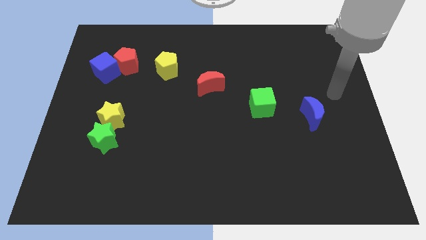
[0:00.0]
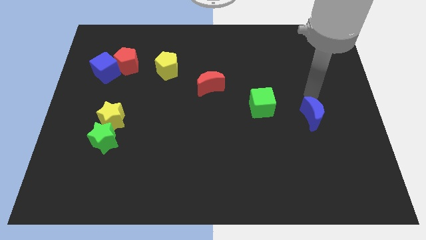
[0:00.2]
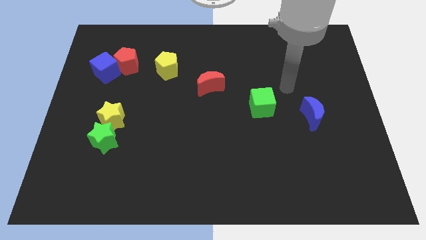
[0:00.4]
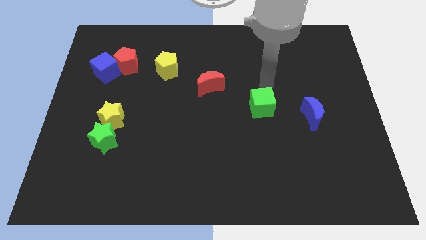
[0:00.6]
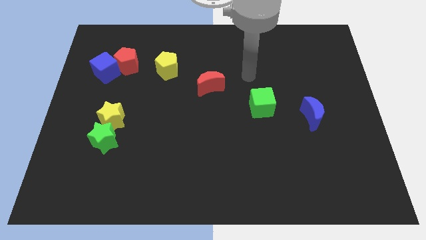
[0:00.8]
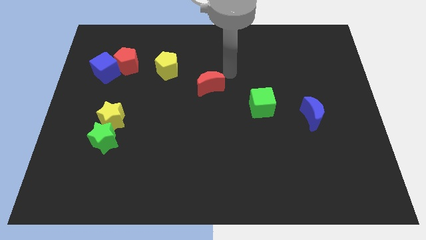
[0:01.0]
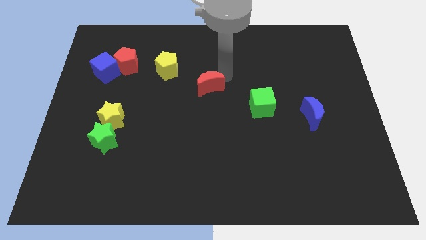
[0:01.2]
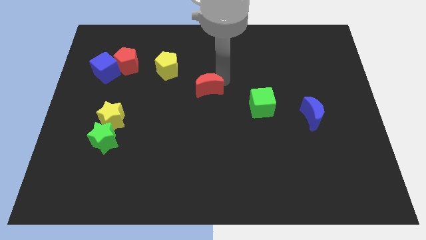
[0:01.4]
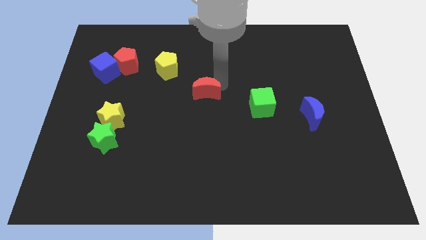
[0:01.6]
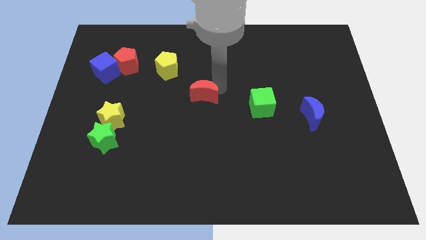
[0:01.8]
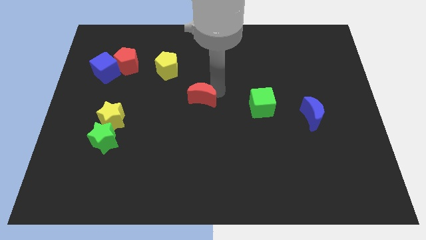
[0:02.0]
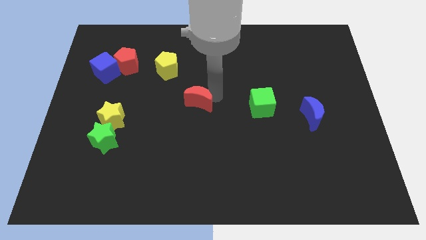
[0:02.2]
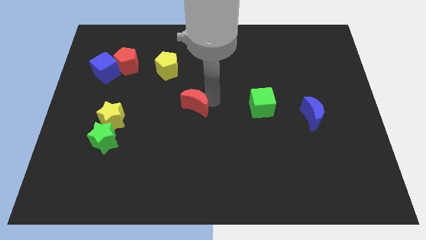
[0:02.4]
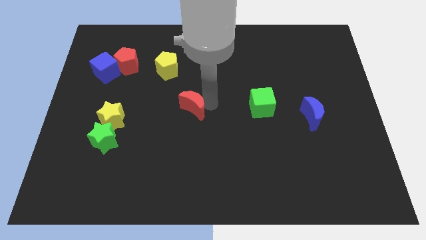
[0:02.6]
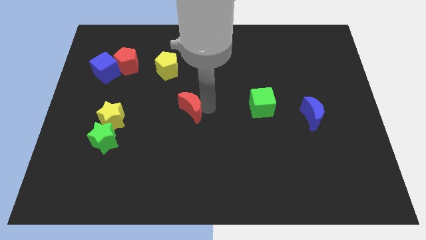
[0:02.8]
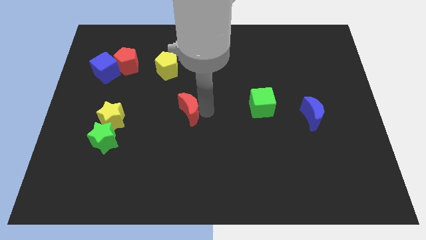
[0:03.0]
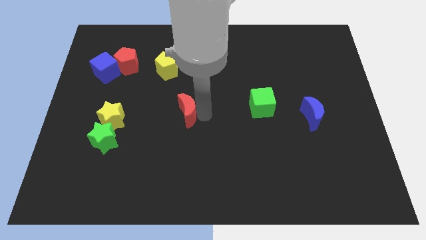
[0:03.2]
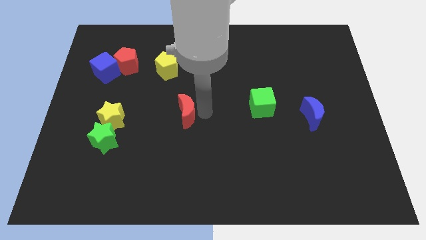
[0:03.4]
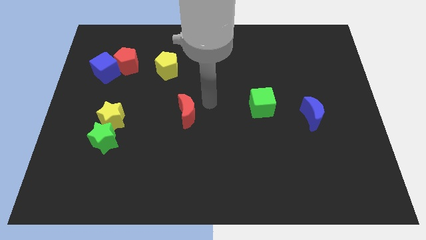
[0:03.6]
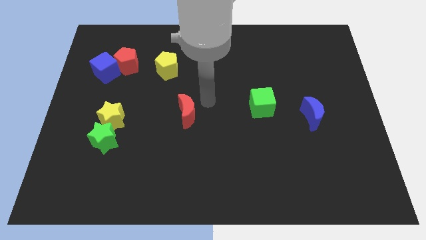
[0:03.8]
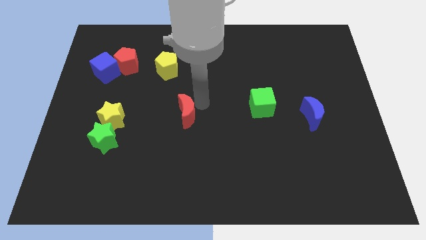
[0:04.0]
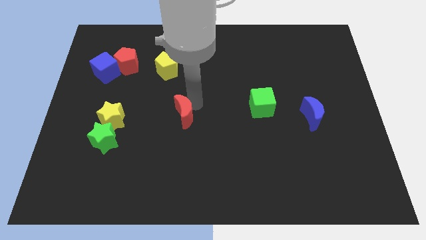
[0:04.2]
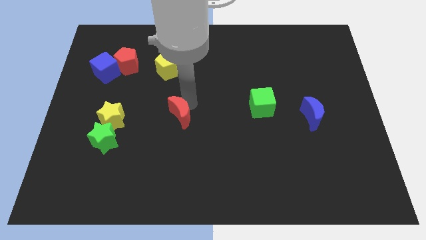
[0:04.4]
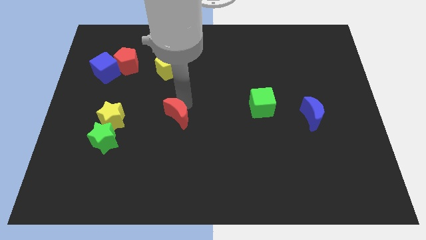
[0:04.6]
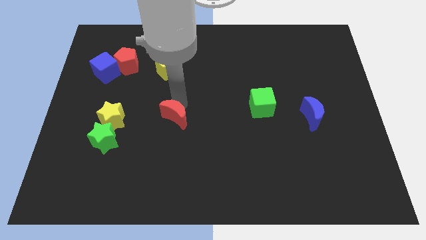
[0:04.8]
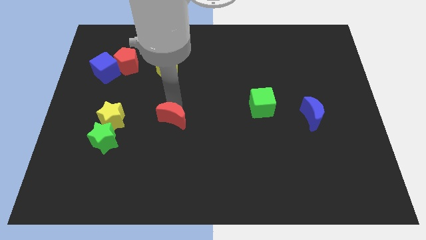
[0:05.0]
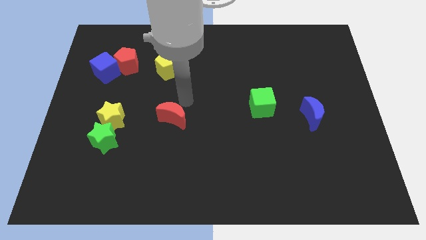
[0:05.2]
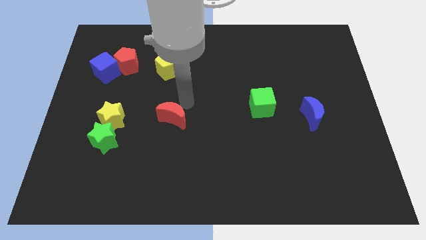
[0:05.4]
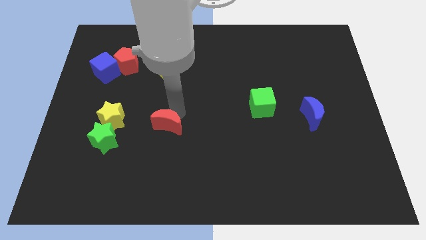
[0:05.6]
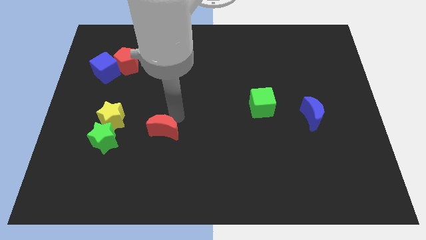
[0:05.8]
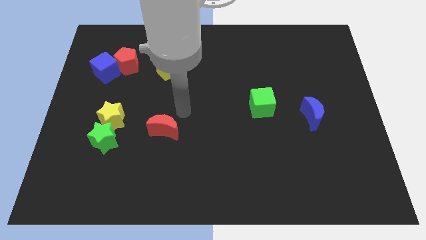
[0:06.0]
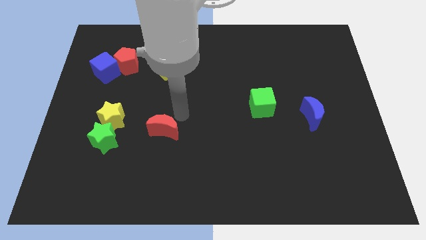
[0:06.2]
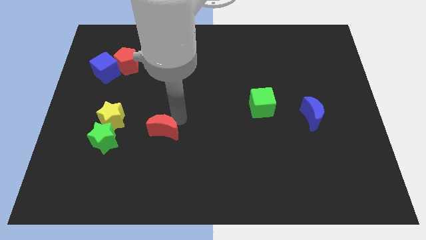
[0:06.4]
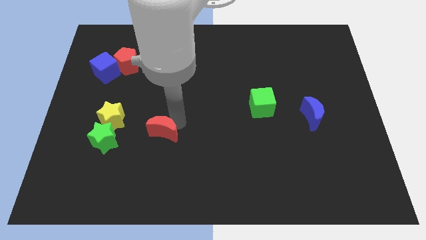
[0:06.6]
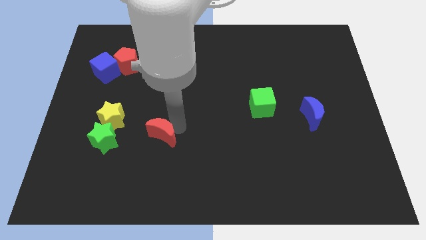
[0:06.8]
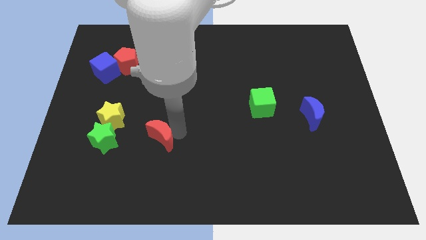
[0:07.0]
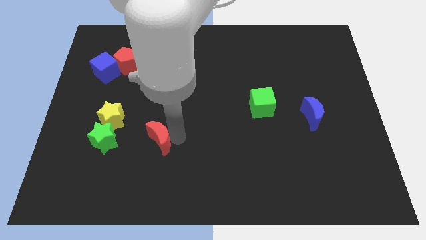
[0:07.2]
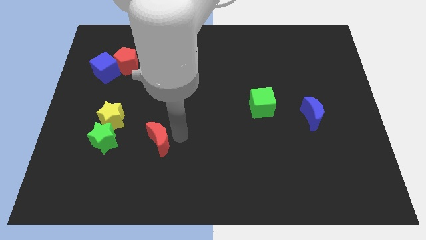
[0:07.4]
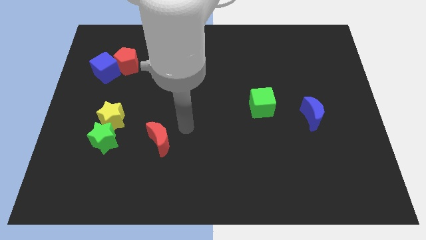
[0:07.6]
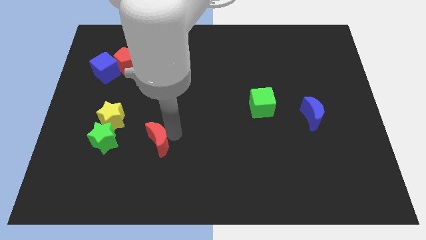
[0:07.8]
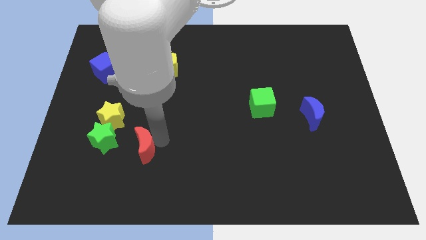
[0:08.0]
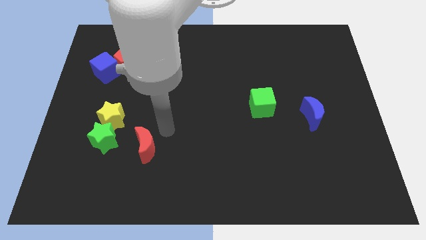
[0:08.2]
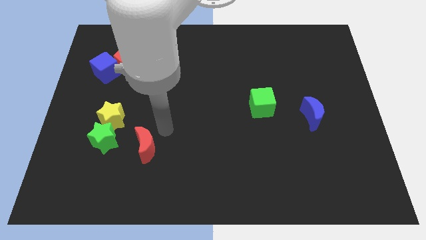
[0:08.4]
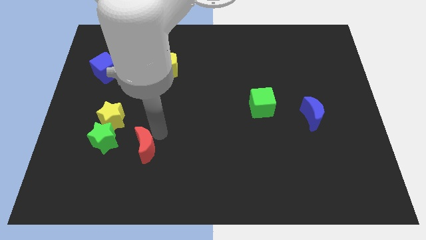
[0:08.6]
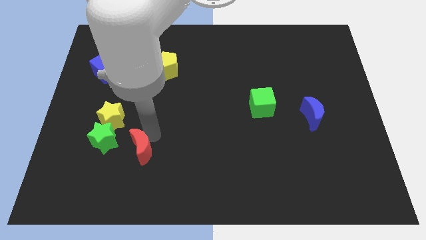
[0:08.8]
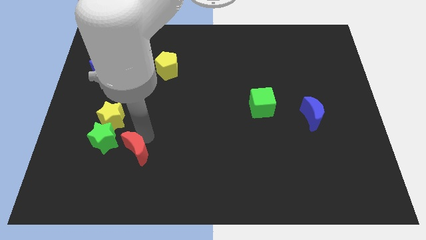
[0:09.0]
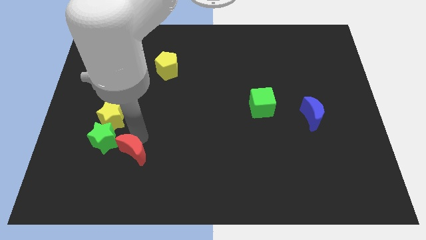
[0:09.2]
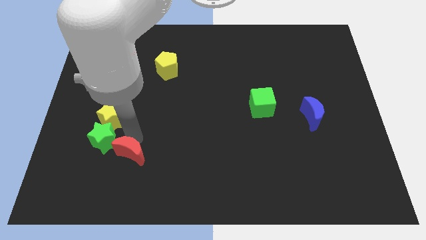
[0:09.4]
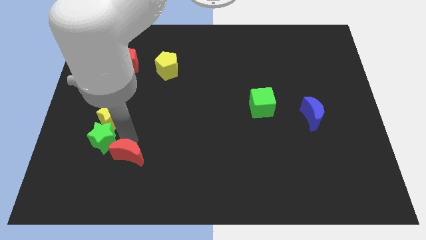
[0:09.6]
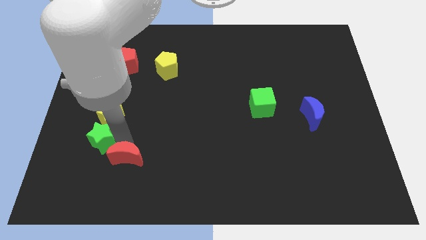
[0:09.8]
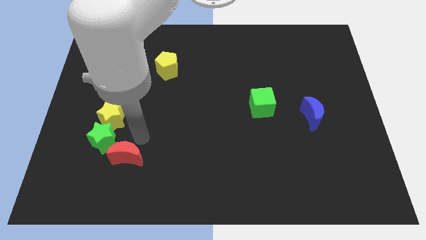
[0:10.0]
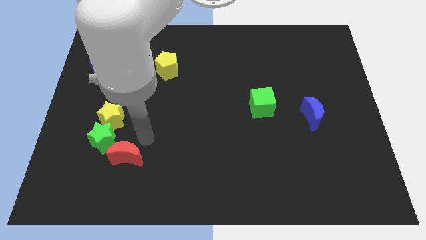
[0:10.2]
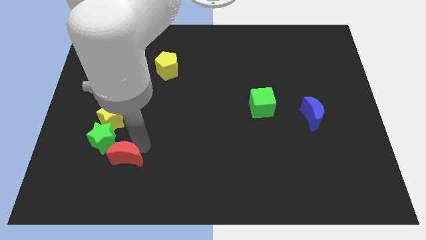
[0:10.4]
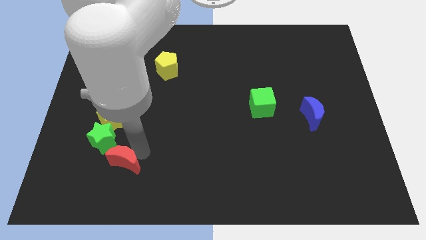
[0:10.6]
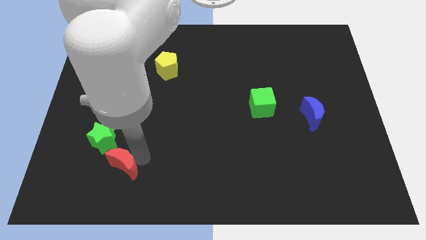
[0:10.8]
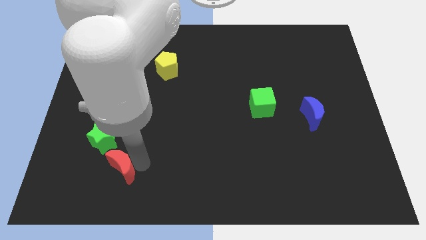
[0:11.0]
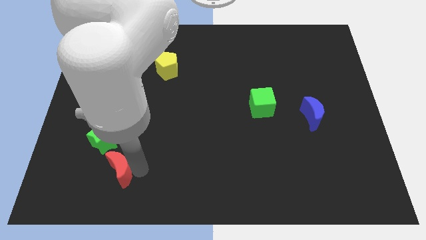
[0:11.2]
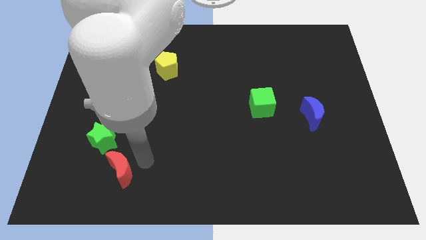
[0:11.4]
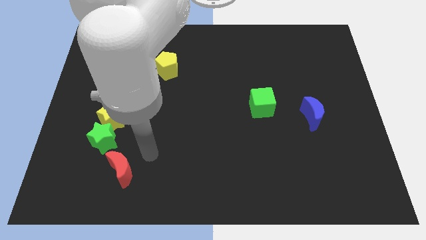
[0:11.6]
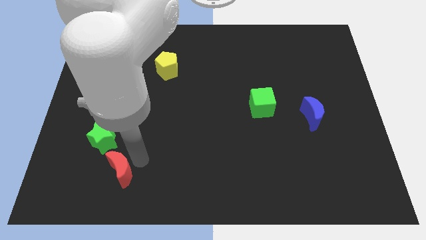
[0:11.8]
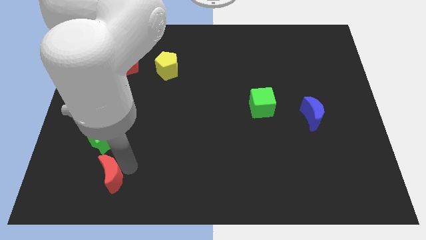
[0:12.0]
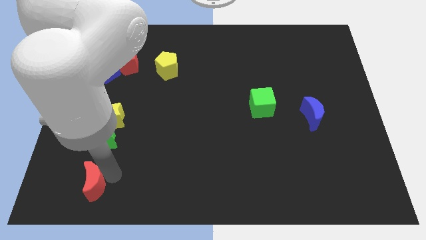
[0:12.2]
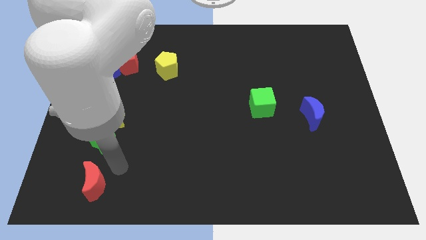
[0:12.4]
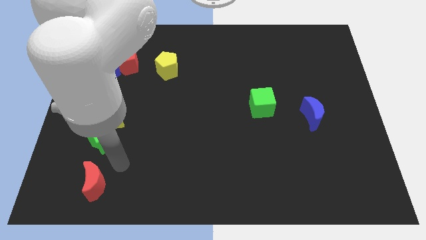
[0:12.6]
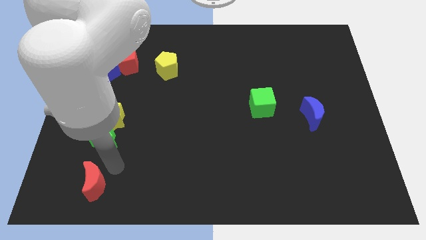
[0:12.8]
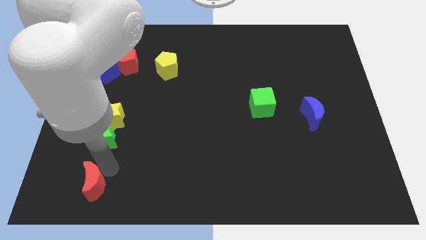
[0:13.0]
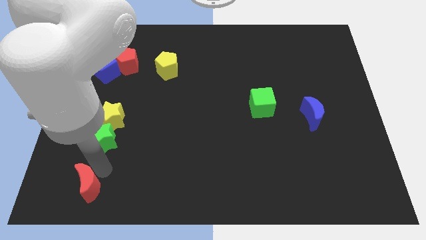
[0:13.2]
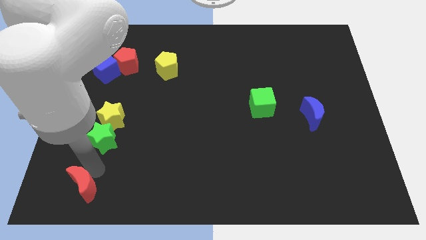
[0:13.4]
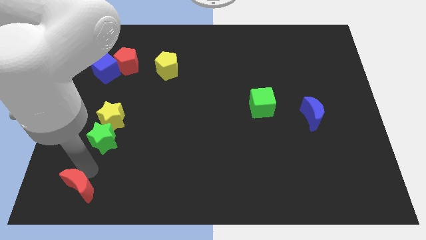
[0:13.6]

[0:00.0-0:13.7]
slide the red moon to the lower left corner
